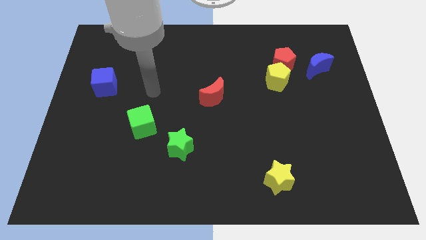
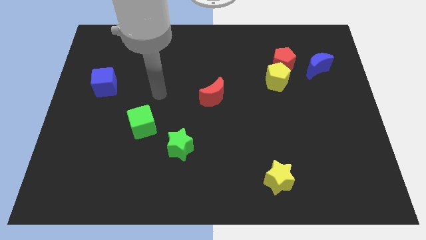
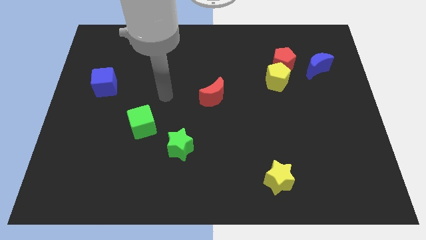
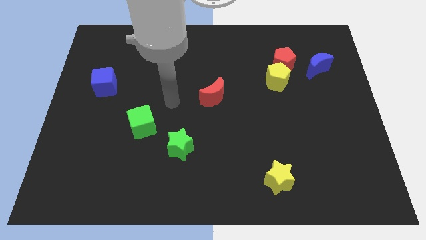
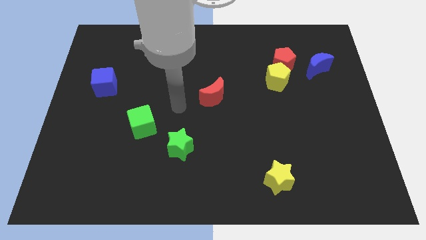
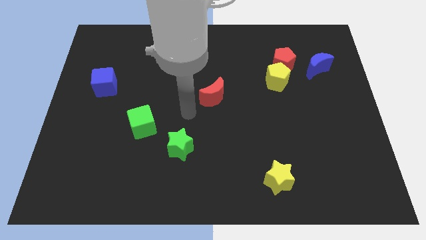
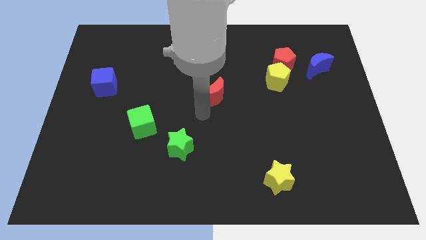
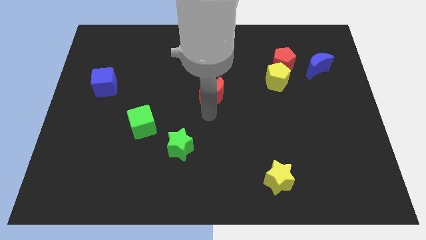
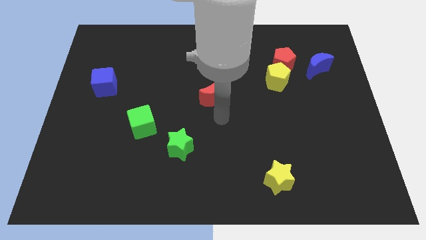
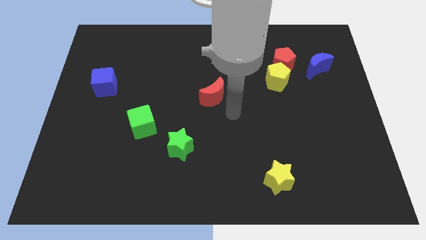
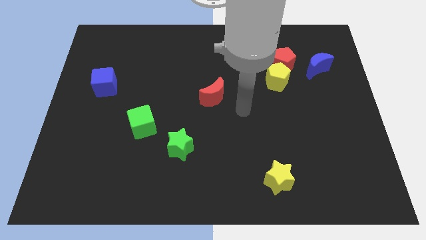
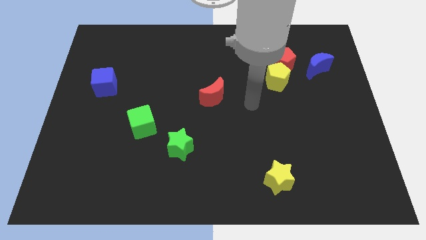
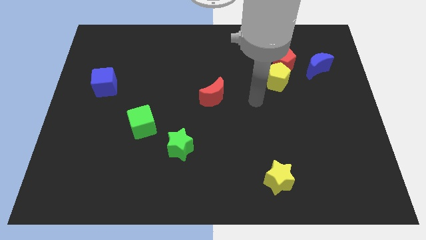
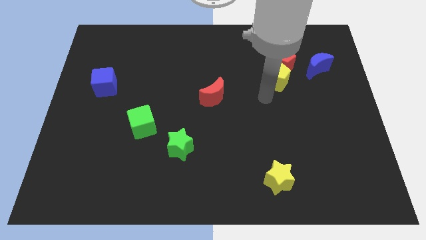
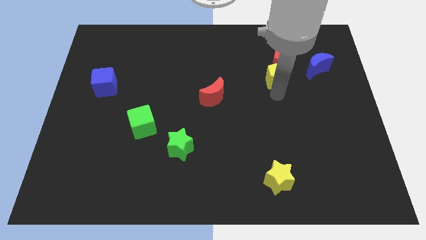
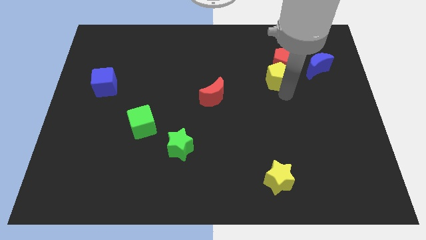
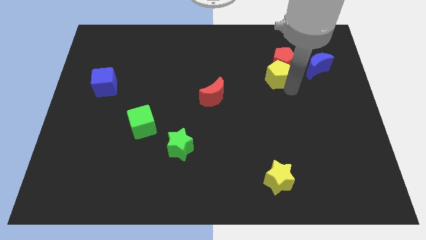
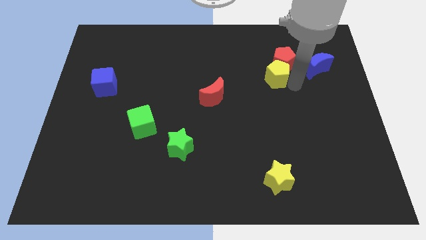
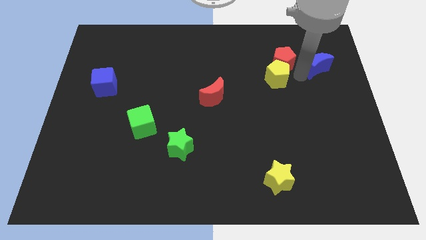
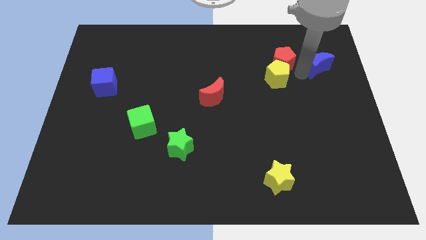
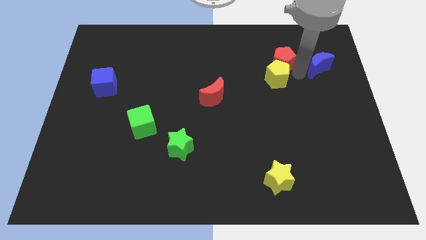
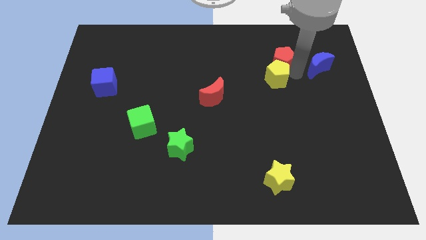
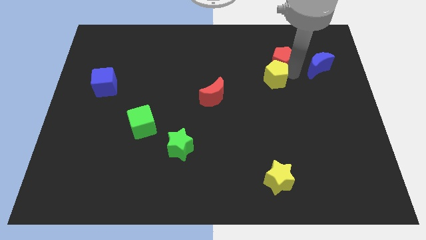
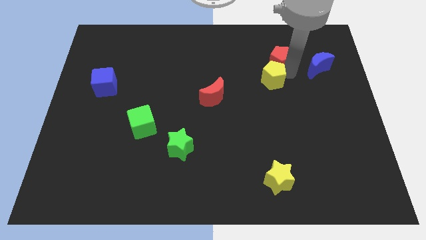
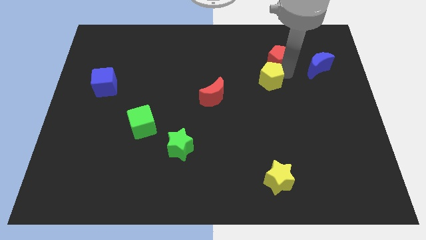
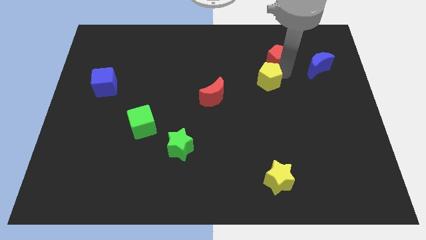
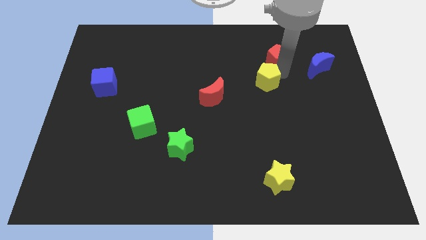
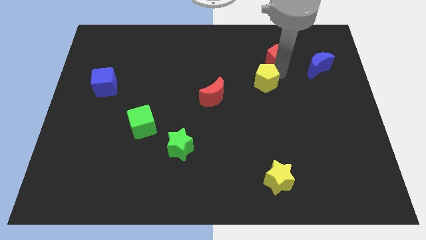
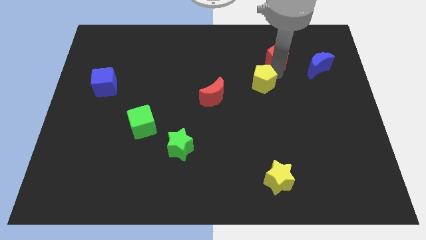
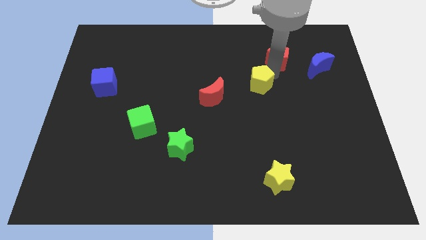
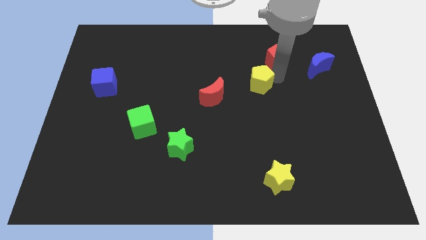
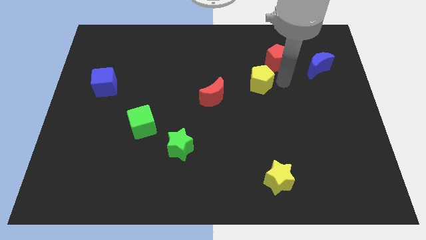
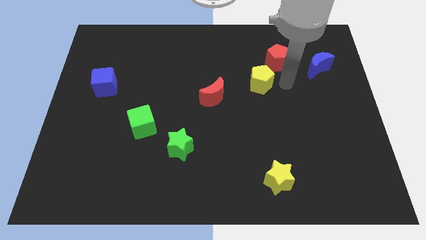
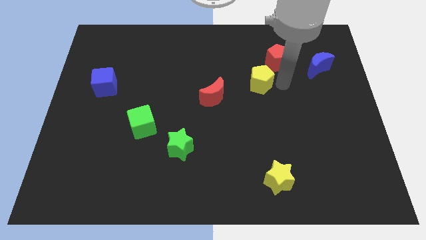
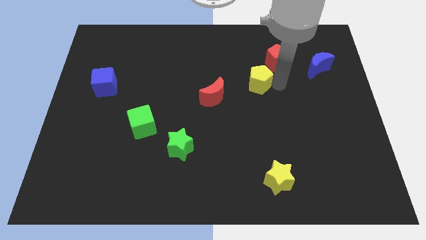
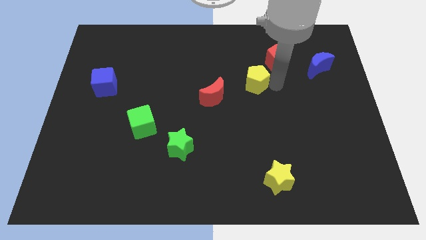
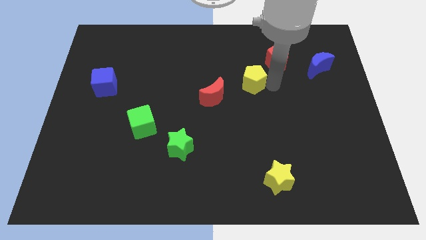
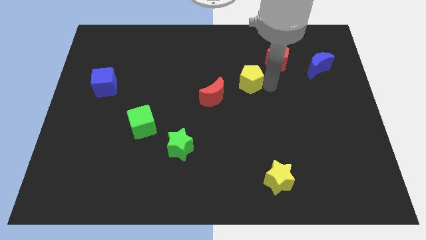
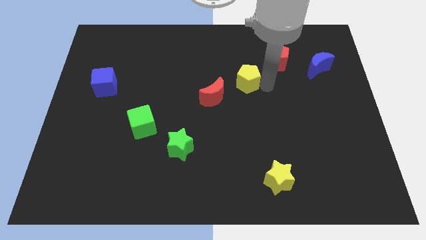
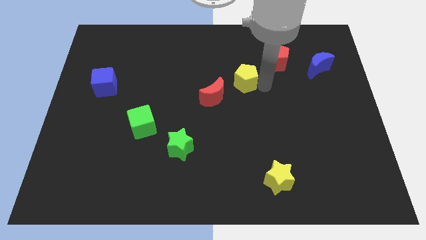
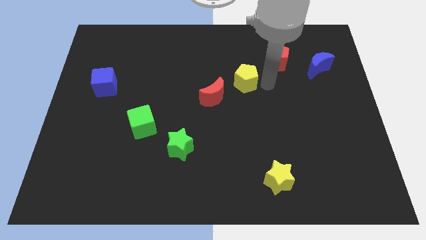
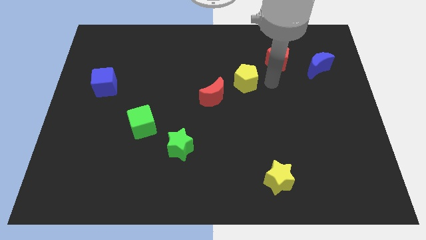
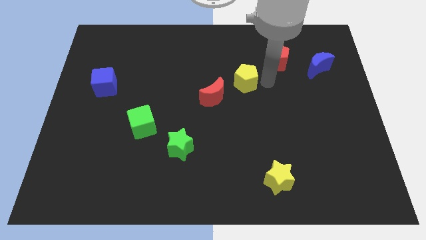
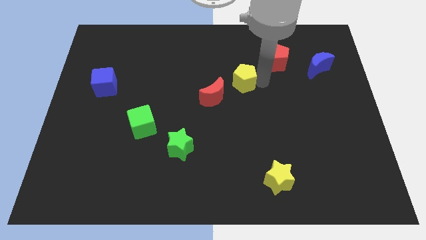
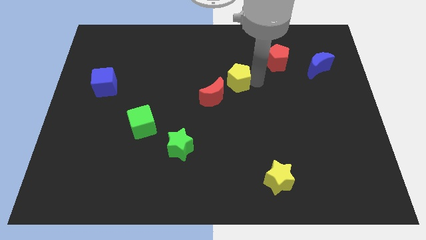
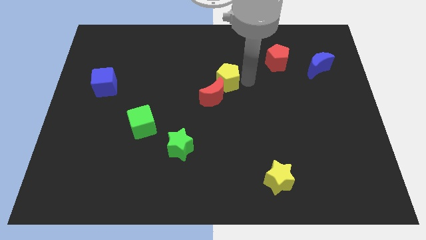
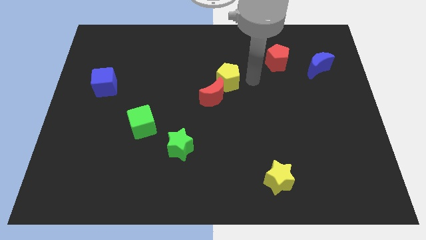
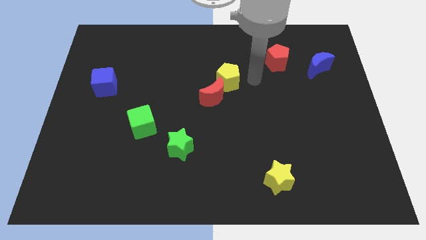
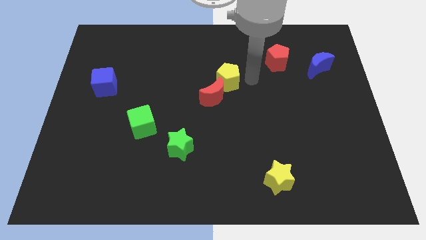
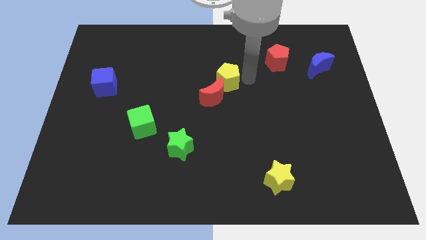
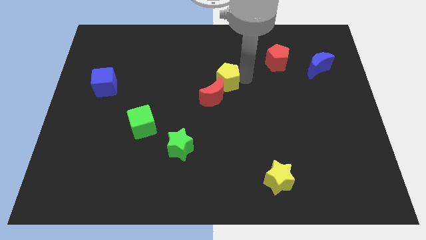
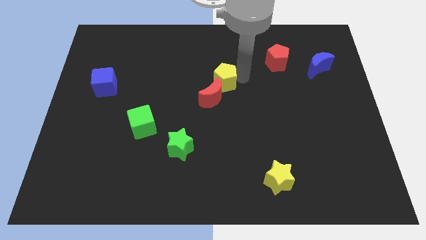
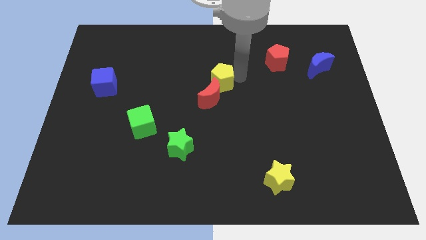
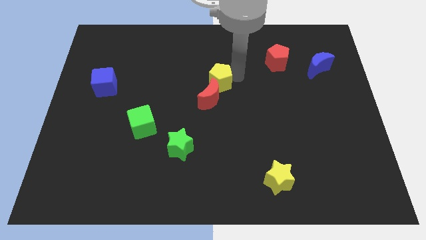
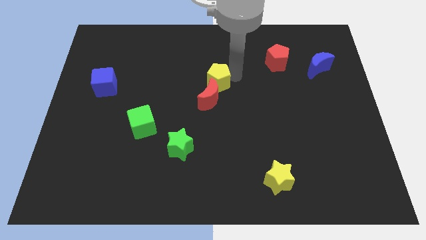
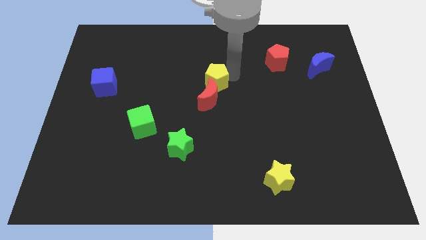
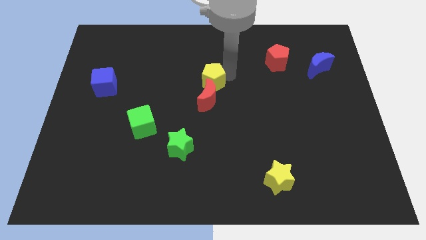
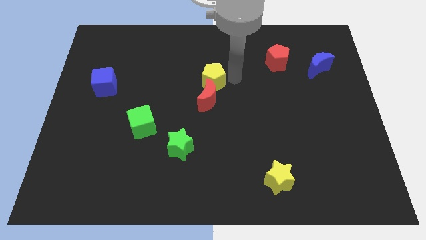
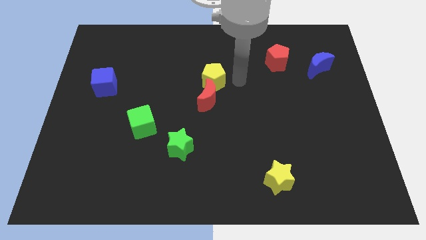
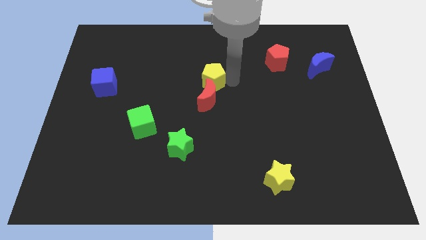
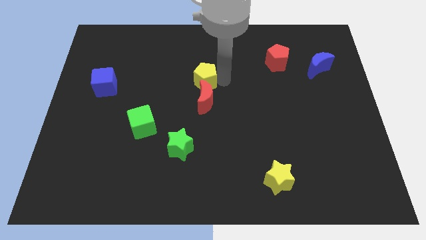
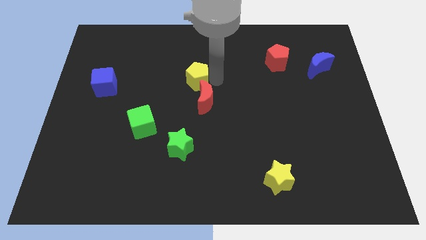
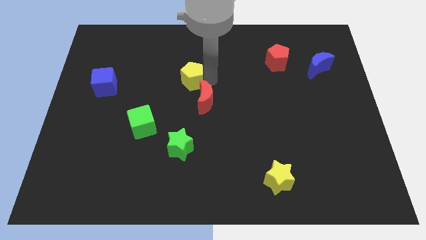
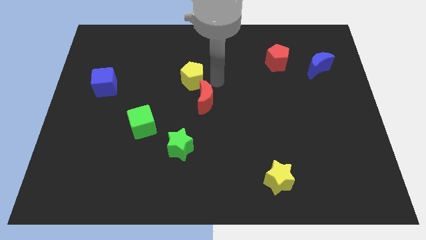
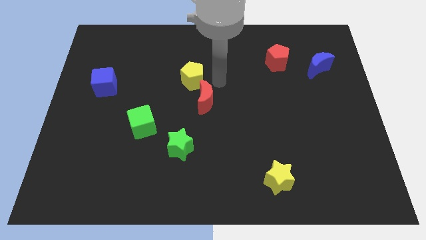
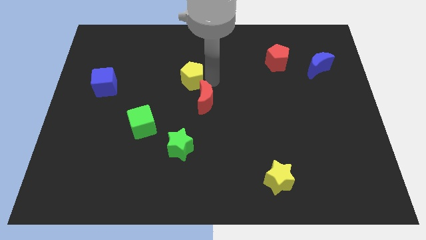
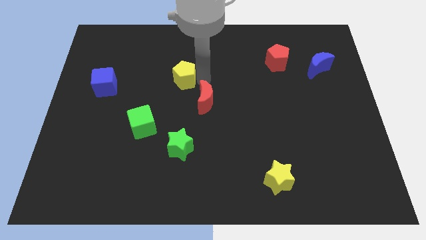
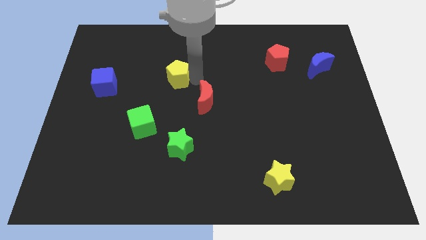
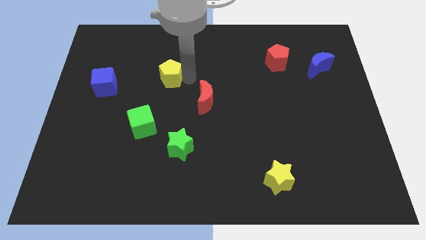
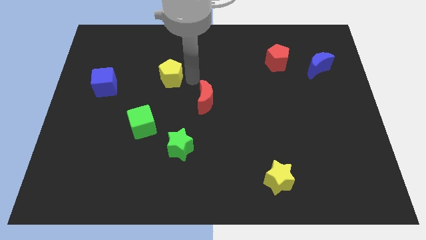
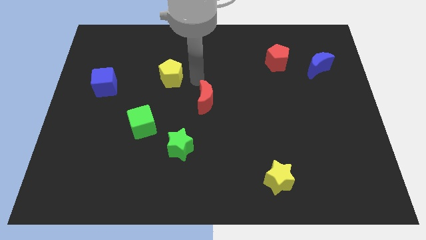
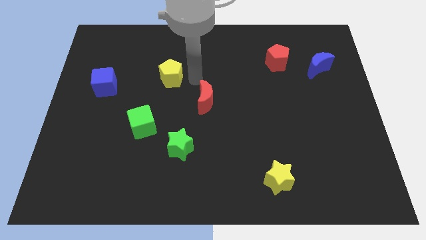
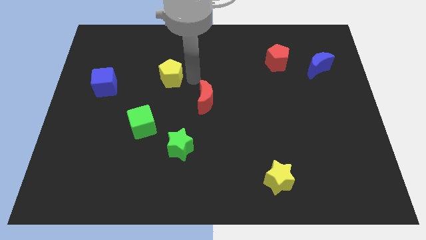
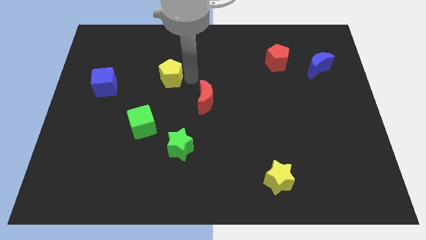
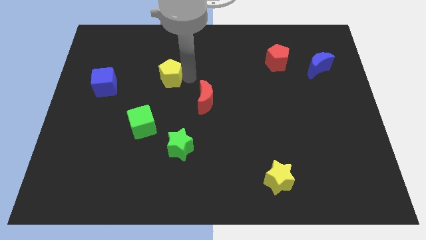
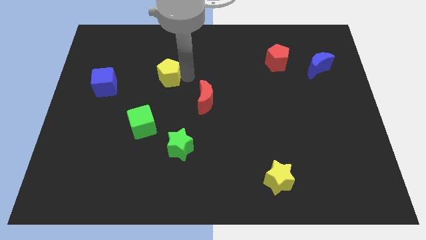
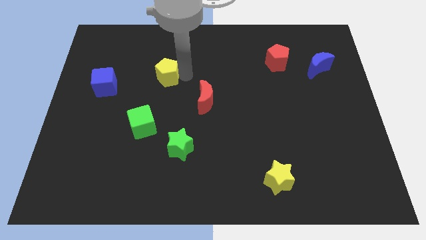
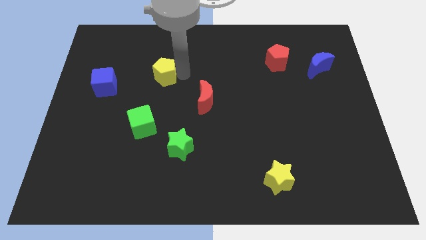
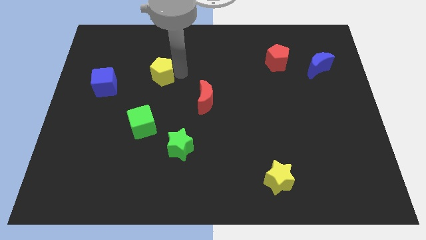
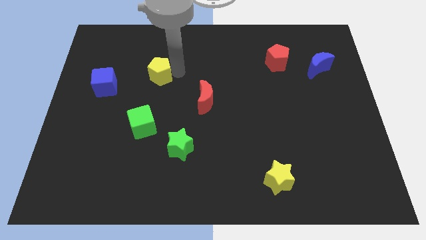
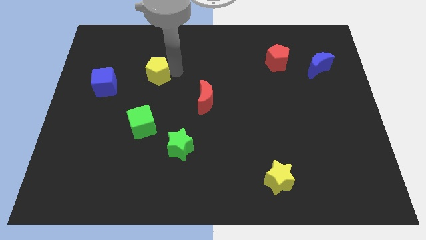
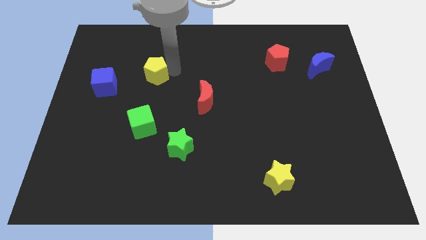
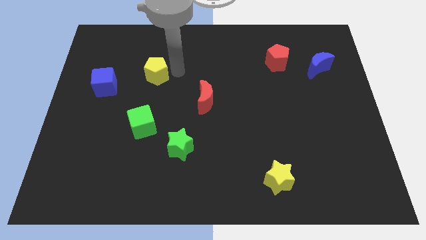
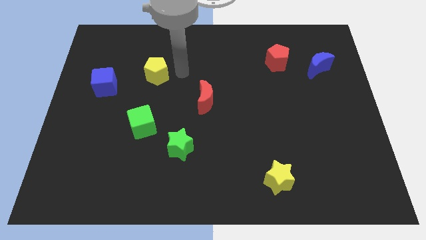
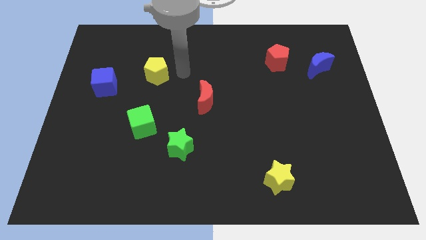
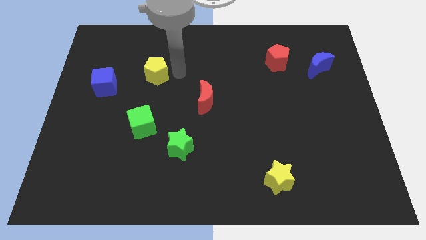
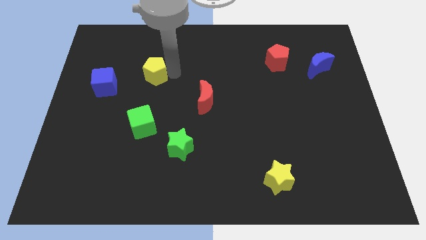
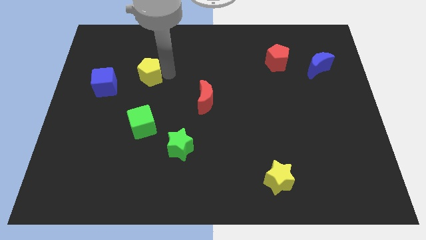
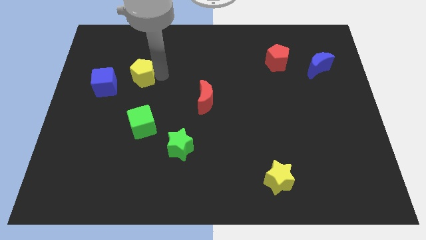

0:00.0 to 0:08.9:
move the yellow pentagon to the top right side of the blue cube
